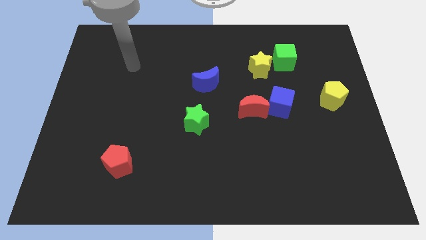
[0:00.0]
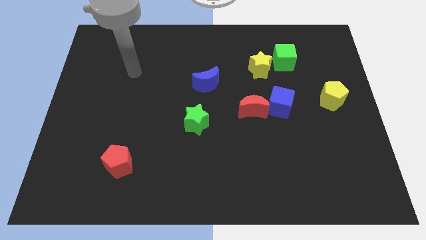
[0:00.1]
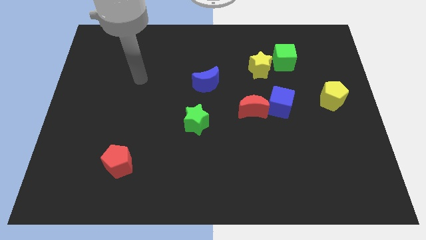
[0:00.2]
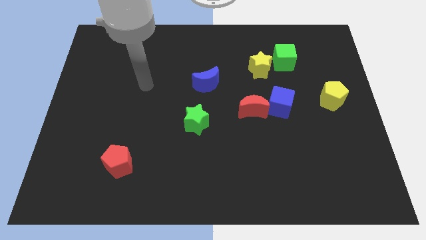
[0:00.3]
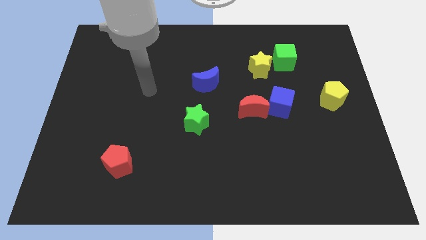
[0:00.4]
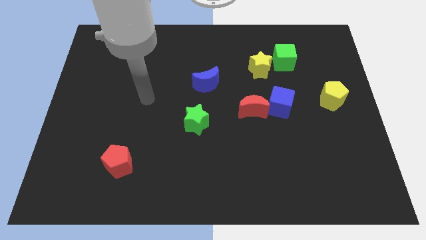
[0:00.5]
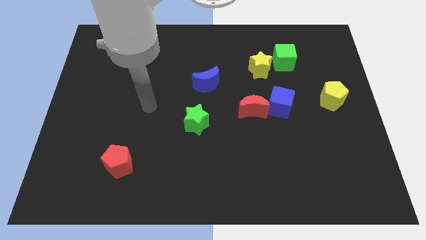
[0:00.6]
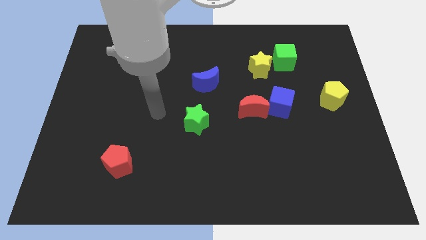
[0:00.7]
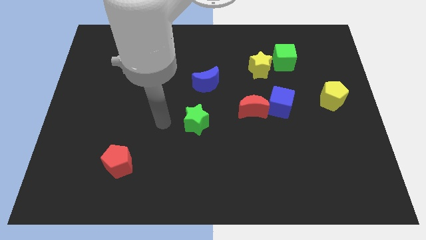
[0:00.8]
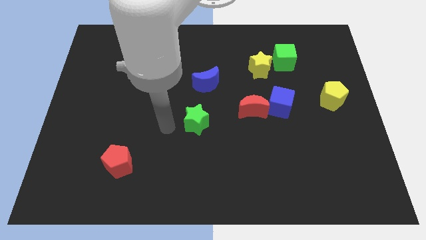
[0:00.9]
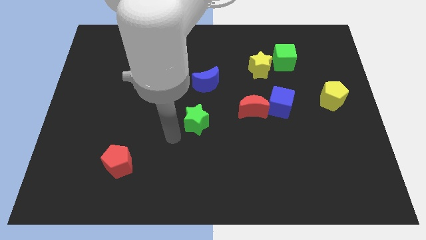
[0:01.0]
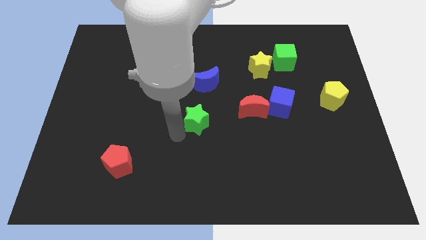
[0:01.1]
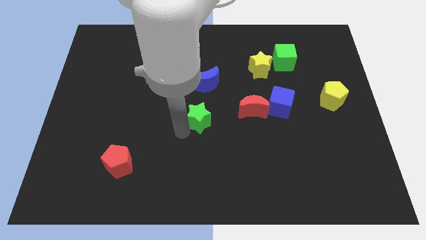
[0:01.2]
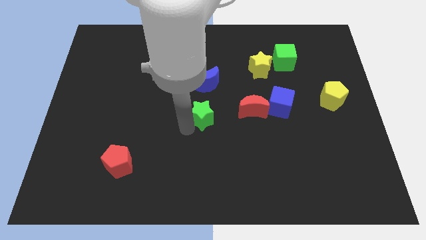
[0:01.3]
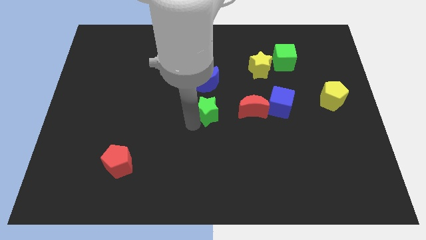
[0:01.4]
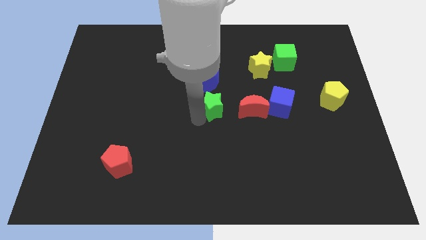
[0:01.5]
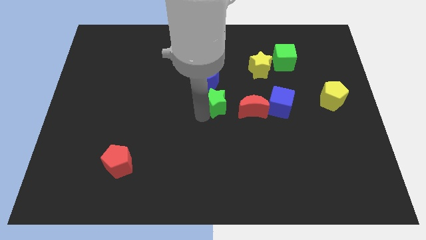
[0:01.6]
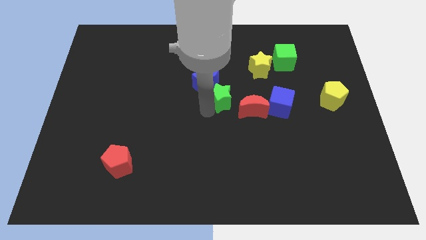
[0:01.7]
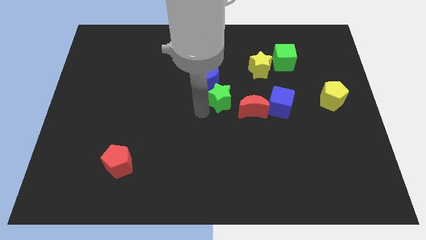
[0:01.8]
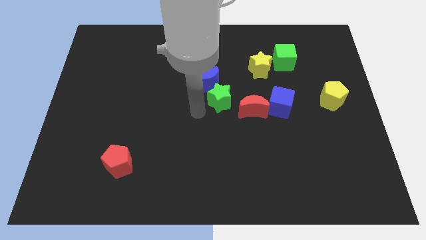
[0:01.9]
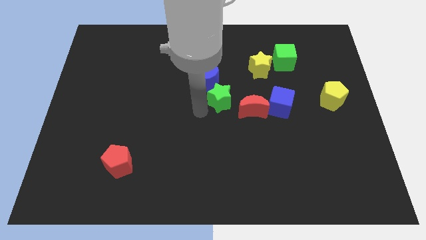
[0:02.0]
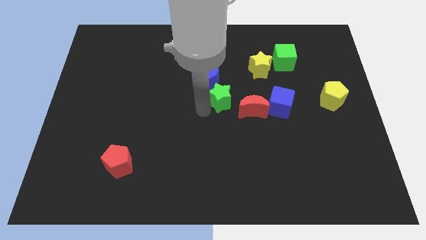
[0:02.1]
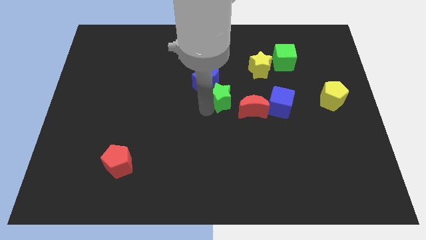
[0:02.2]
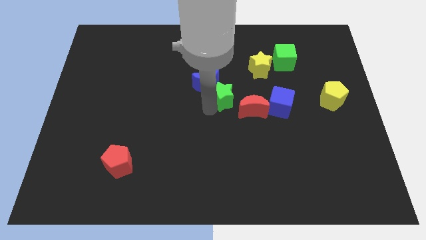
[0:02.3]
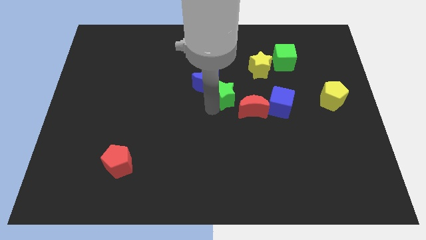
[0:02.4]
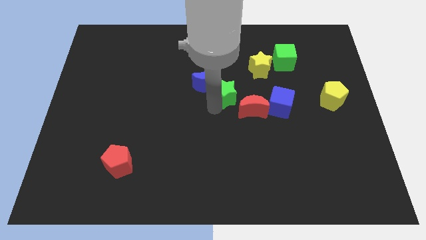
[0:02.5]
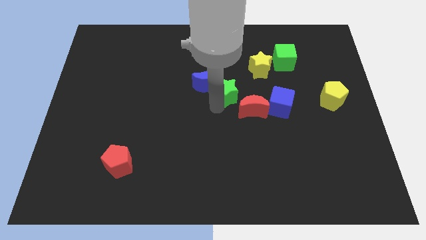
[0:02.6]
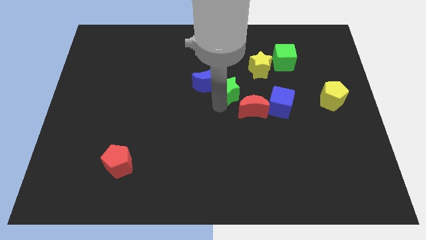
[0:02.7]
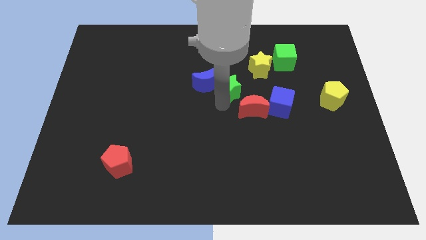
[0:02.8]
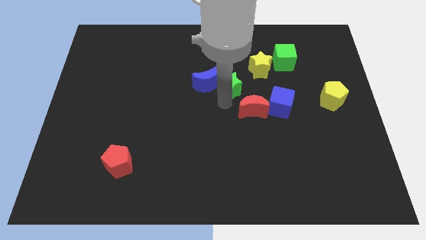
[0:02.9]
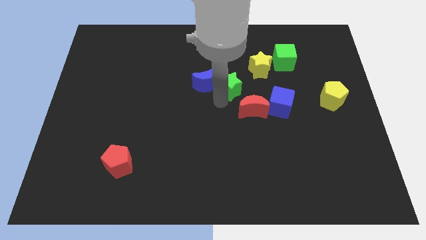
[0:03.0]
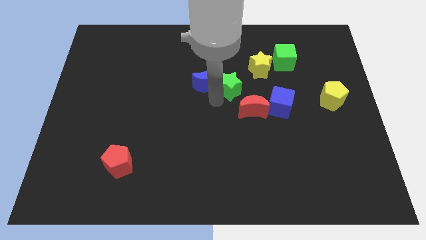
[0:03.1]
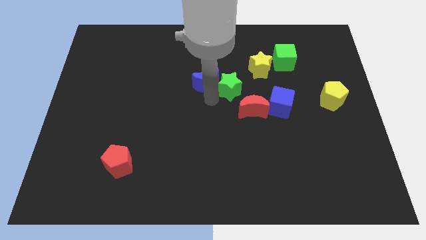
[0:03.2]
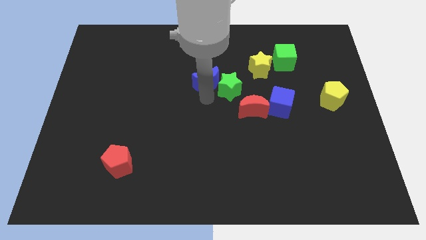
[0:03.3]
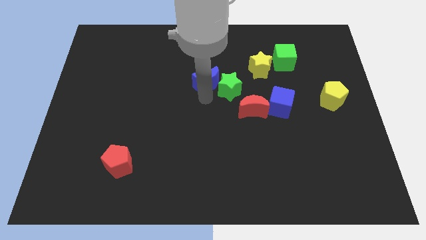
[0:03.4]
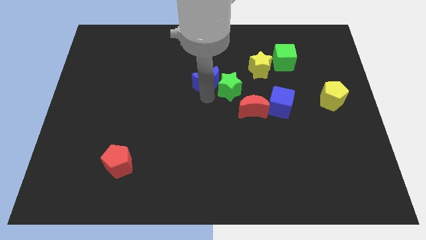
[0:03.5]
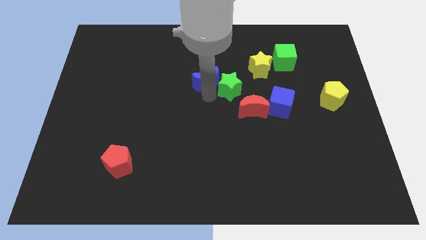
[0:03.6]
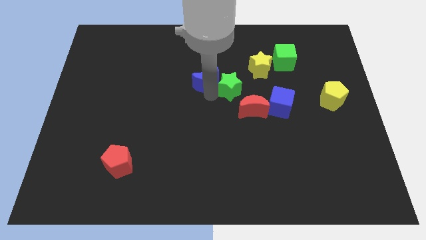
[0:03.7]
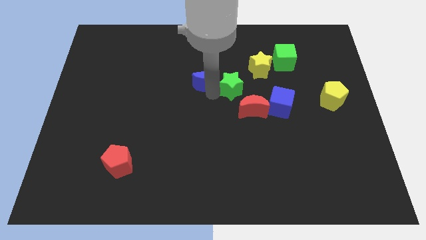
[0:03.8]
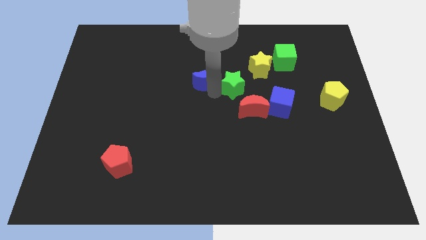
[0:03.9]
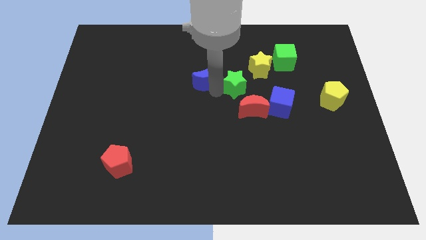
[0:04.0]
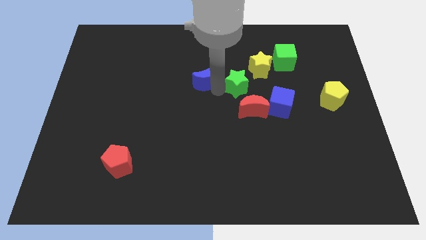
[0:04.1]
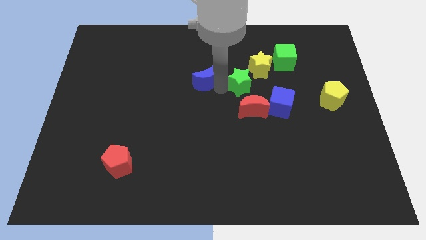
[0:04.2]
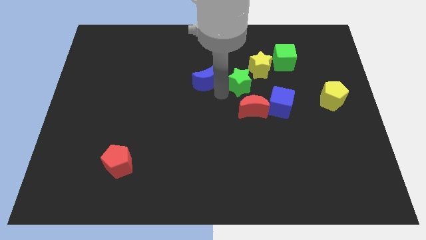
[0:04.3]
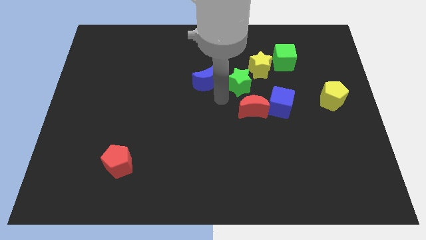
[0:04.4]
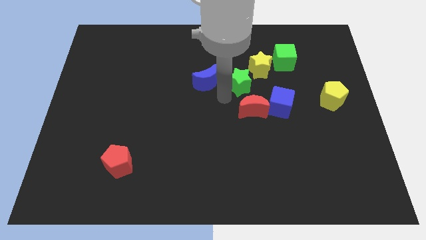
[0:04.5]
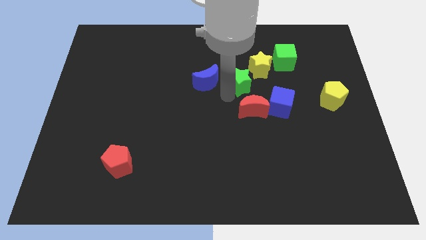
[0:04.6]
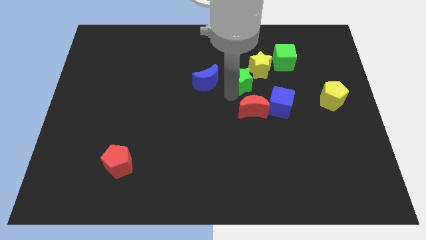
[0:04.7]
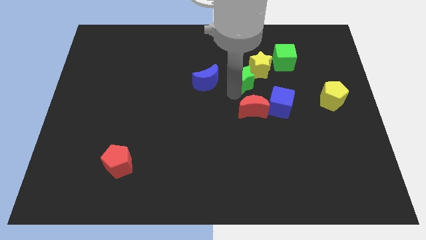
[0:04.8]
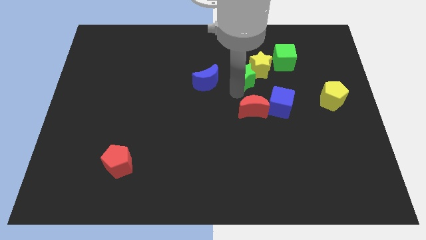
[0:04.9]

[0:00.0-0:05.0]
push the green star next to the yellow star

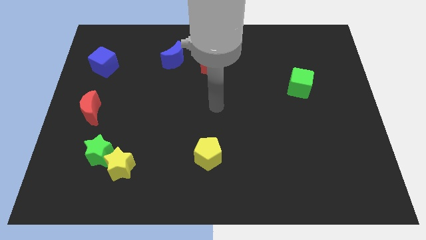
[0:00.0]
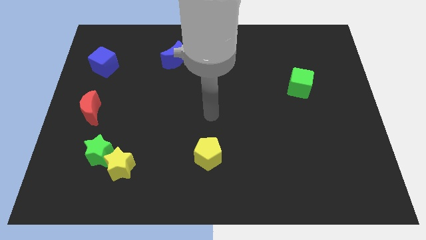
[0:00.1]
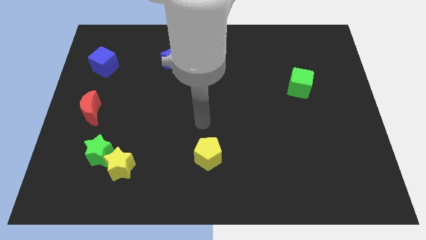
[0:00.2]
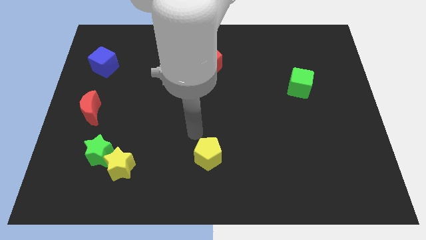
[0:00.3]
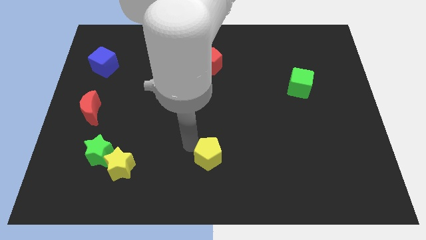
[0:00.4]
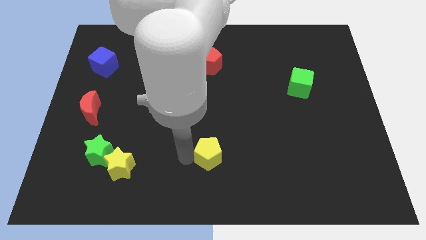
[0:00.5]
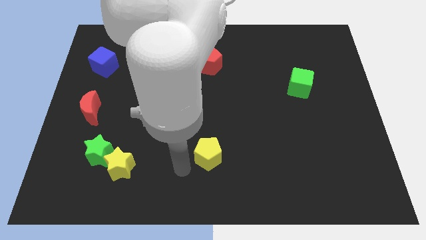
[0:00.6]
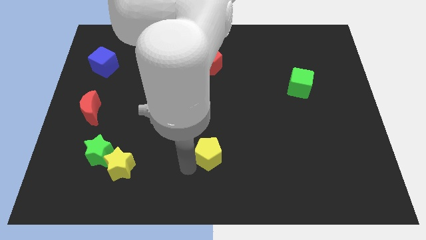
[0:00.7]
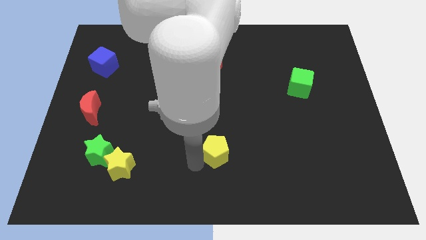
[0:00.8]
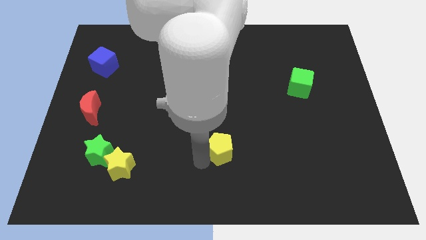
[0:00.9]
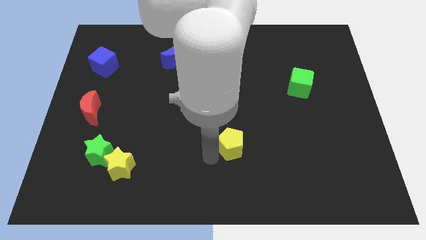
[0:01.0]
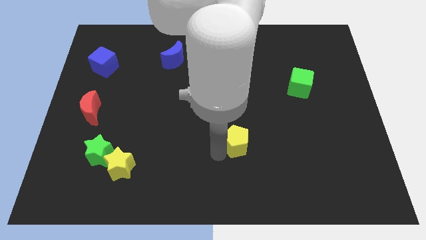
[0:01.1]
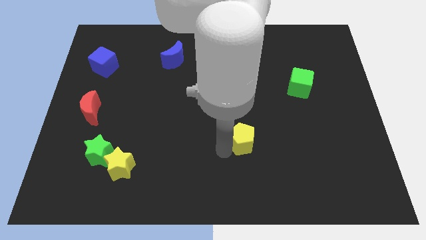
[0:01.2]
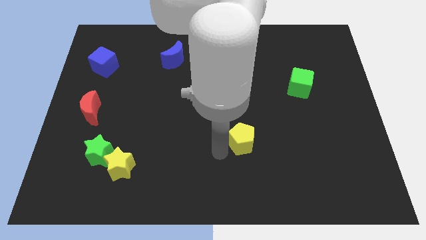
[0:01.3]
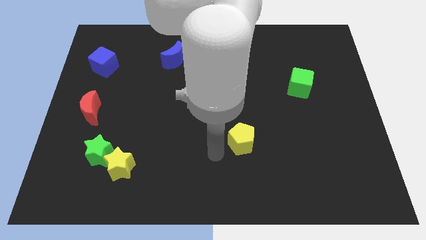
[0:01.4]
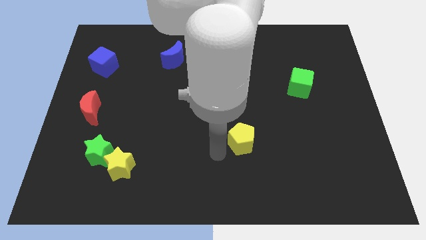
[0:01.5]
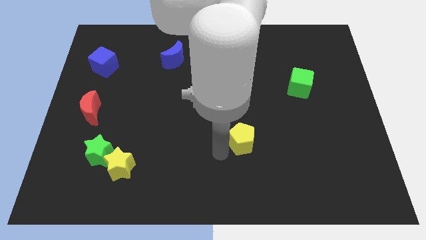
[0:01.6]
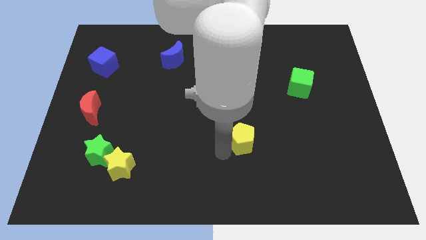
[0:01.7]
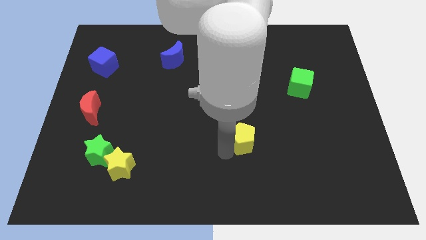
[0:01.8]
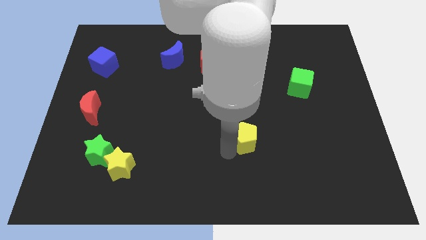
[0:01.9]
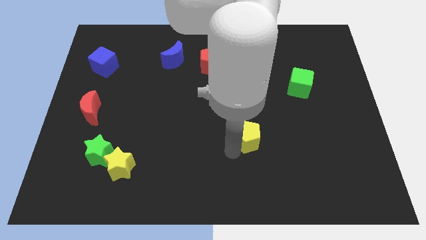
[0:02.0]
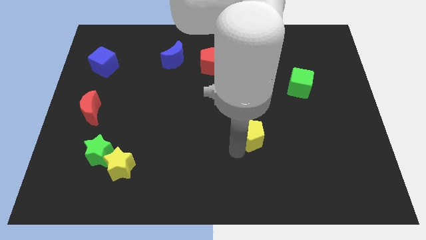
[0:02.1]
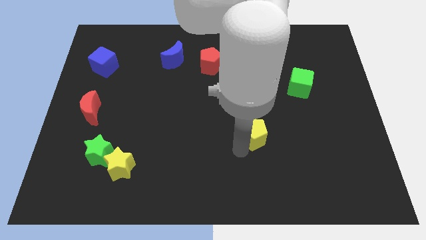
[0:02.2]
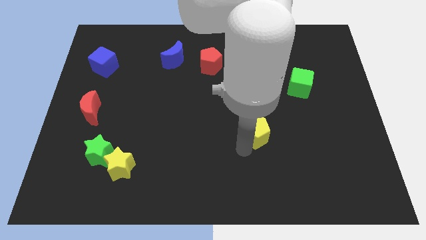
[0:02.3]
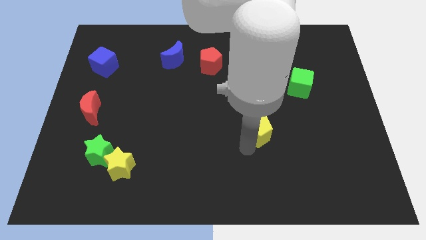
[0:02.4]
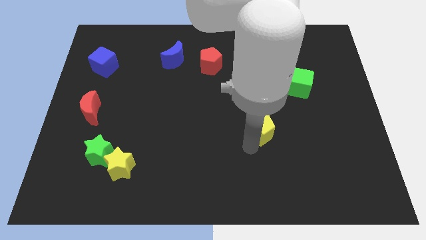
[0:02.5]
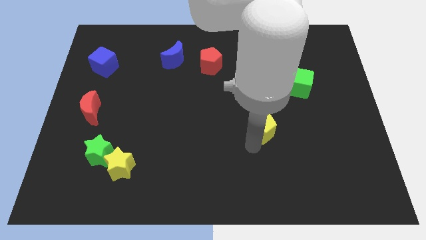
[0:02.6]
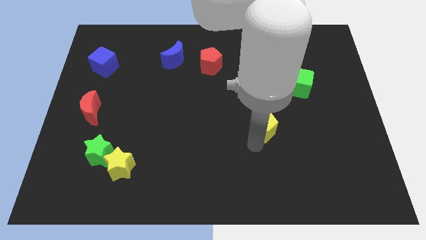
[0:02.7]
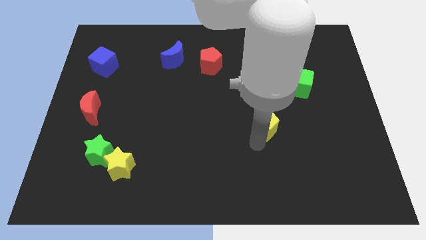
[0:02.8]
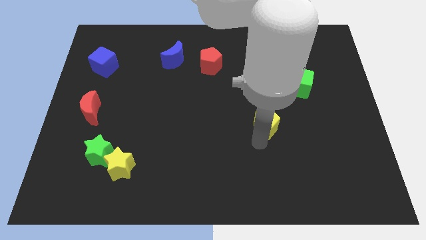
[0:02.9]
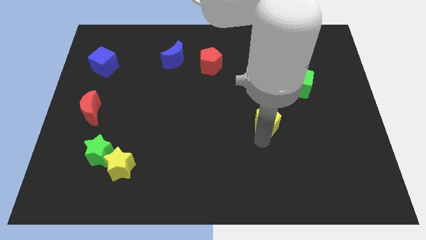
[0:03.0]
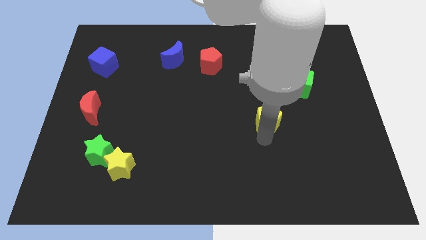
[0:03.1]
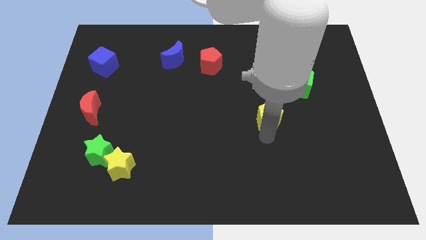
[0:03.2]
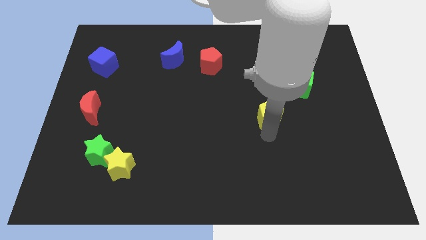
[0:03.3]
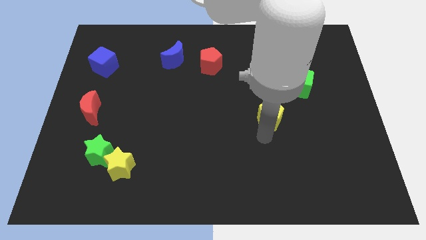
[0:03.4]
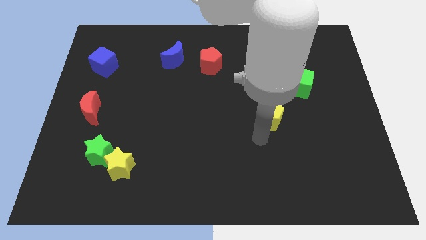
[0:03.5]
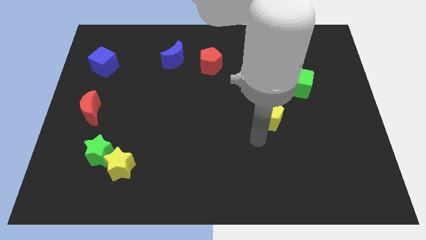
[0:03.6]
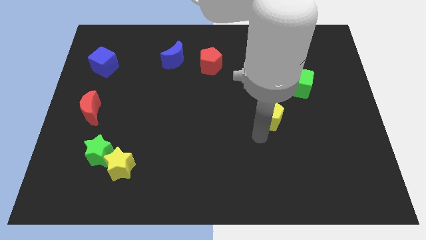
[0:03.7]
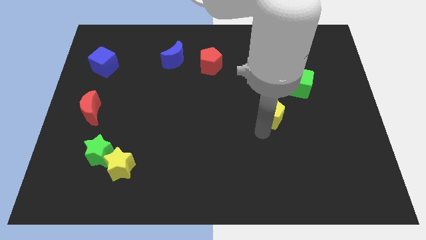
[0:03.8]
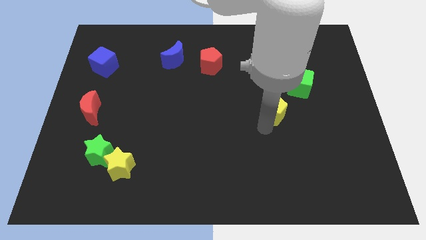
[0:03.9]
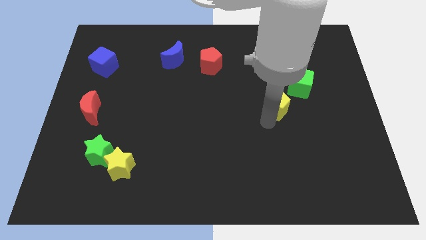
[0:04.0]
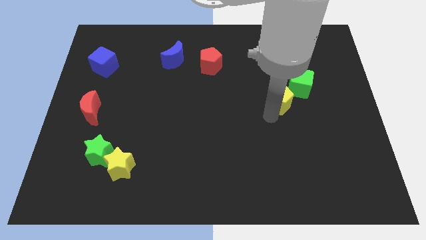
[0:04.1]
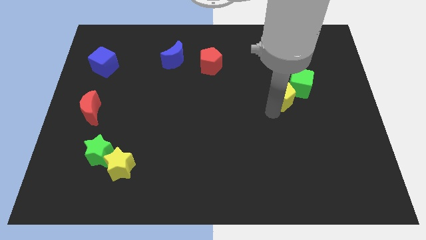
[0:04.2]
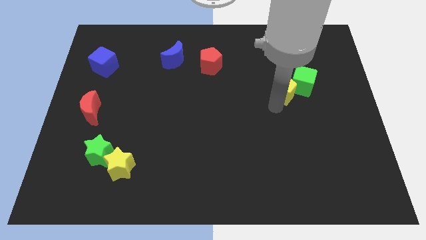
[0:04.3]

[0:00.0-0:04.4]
push the yellow pentagon towards the green cube
